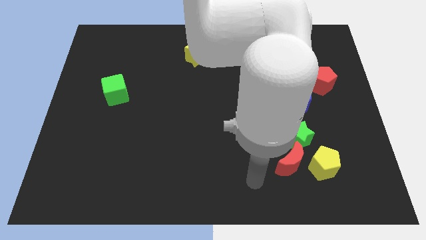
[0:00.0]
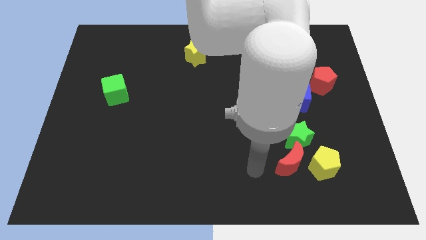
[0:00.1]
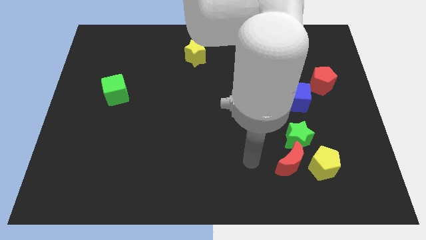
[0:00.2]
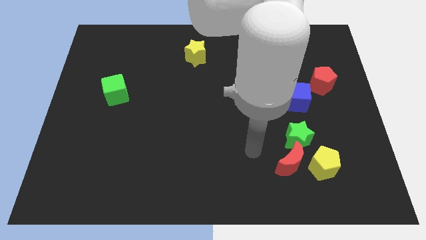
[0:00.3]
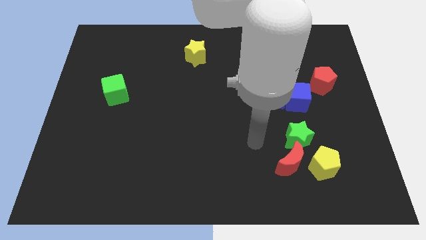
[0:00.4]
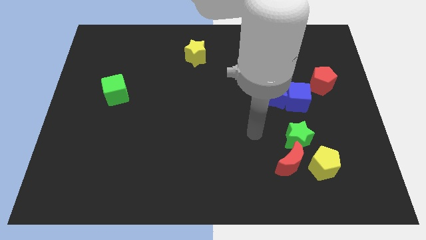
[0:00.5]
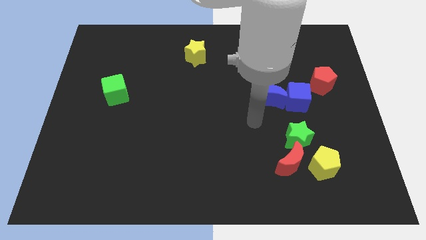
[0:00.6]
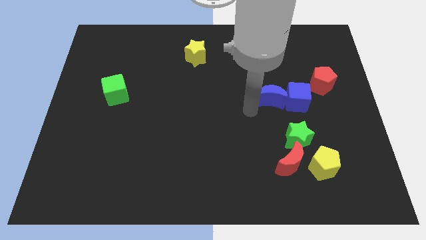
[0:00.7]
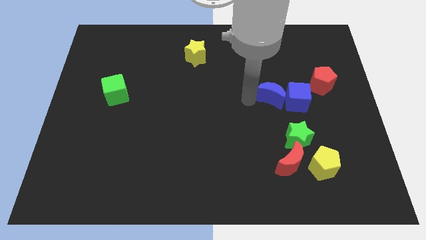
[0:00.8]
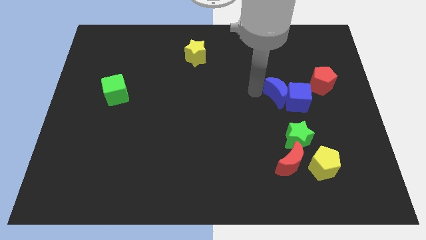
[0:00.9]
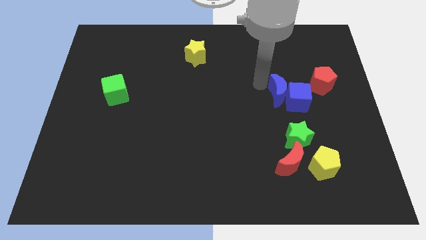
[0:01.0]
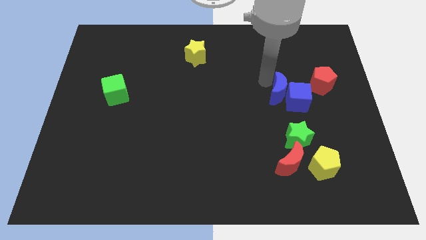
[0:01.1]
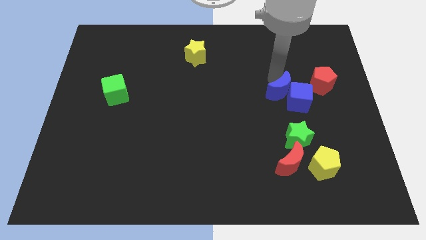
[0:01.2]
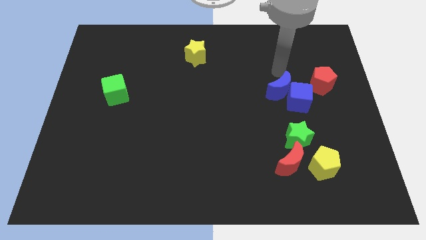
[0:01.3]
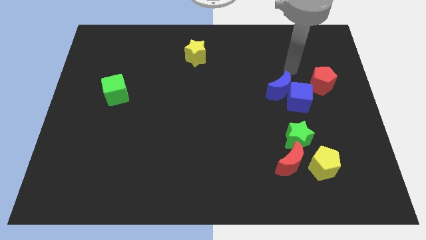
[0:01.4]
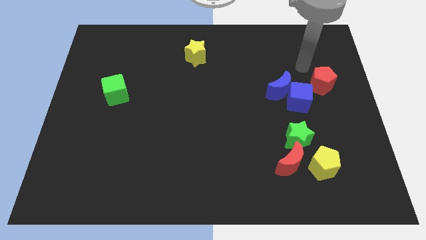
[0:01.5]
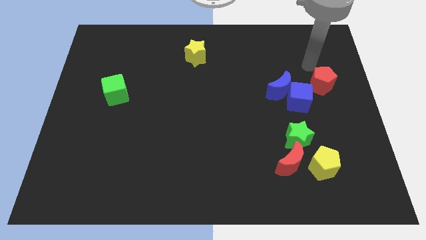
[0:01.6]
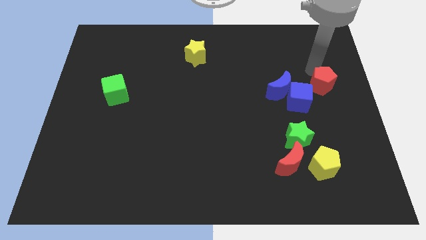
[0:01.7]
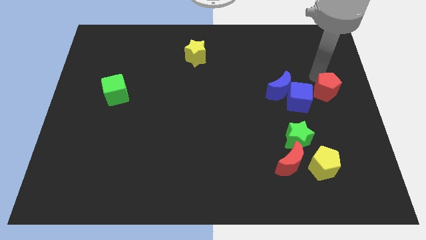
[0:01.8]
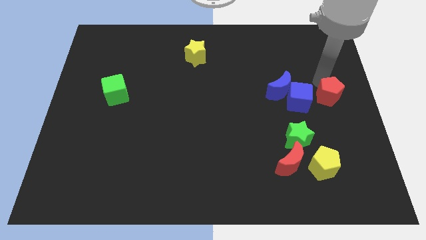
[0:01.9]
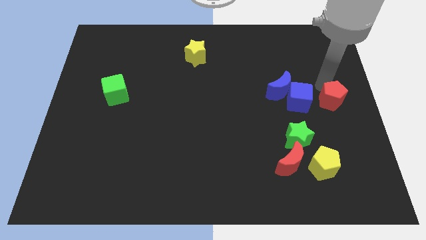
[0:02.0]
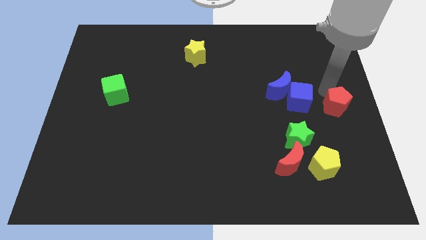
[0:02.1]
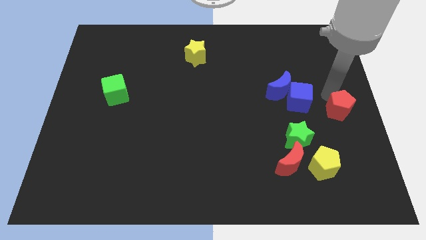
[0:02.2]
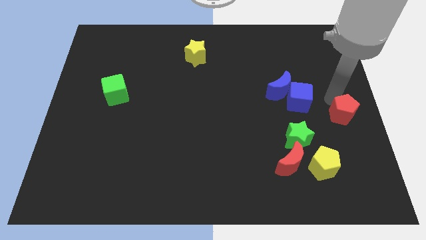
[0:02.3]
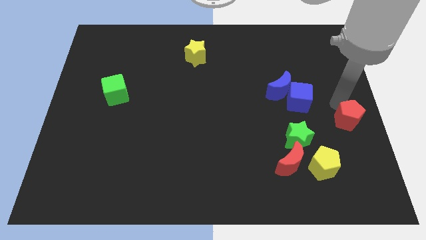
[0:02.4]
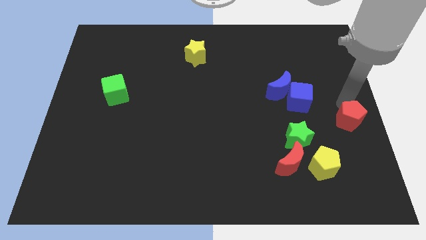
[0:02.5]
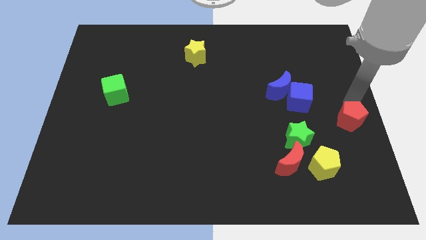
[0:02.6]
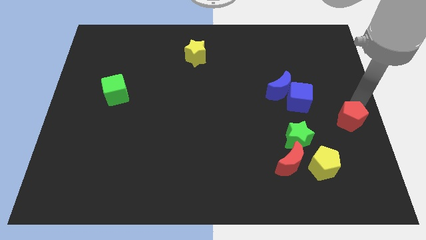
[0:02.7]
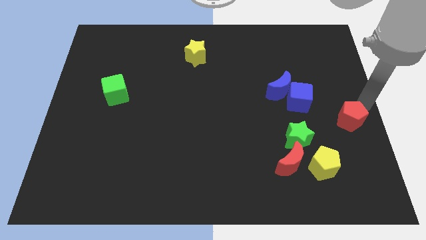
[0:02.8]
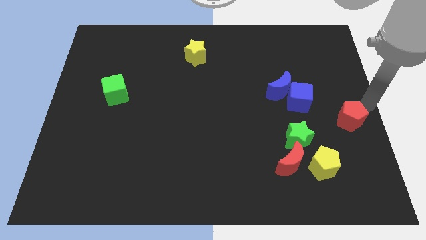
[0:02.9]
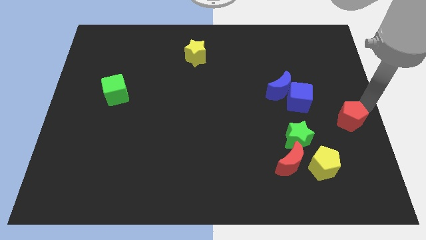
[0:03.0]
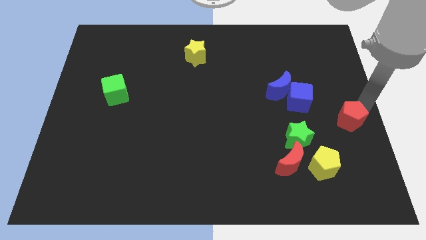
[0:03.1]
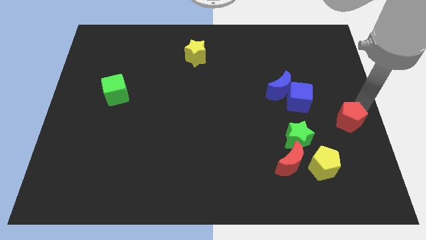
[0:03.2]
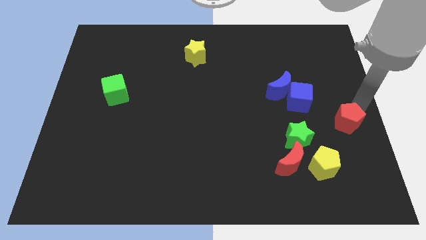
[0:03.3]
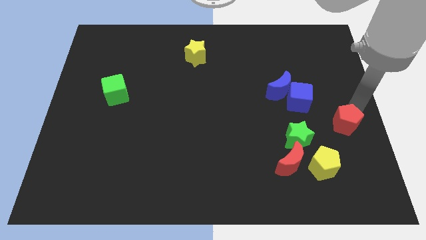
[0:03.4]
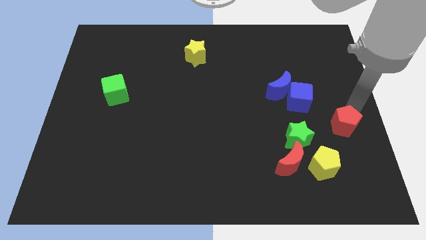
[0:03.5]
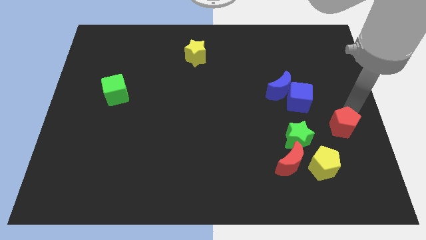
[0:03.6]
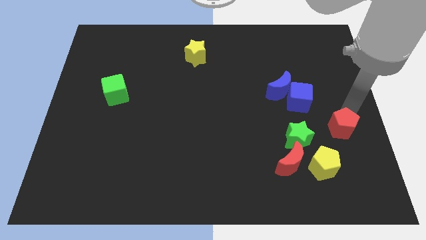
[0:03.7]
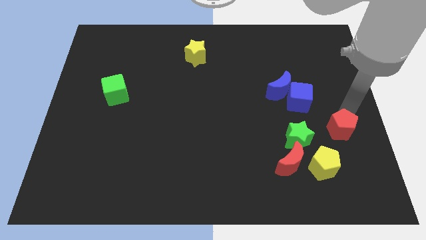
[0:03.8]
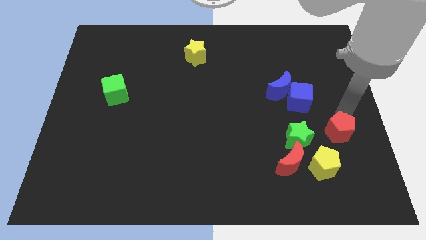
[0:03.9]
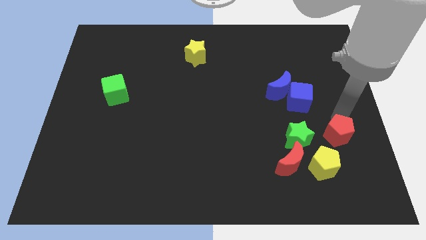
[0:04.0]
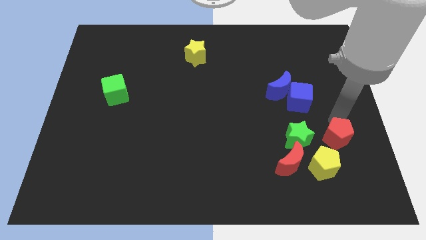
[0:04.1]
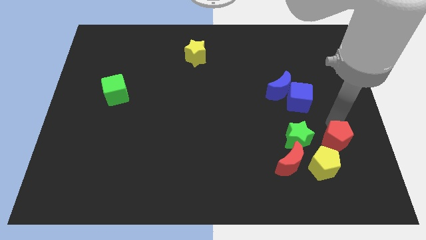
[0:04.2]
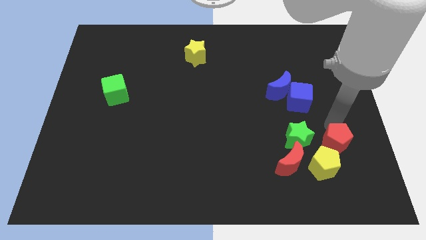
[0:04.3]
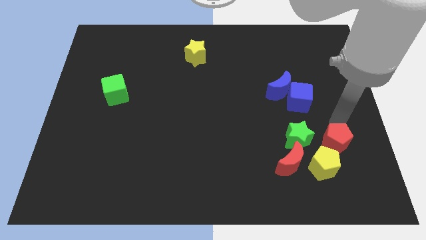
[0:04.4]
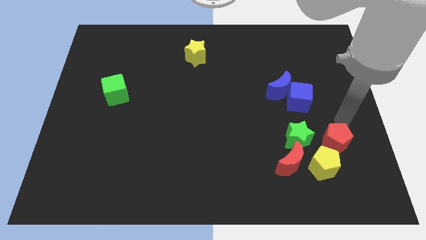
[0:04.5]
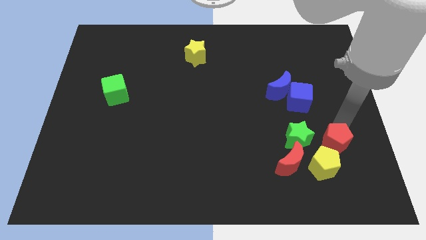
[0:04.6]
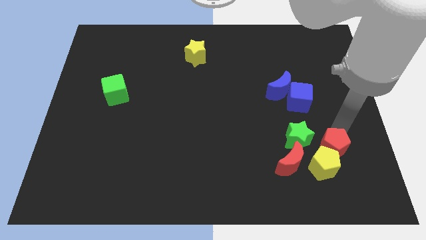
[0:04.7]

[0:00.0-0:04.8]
put the red pentagon towards the yellow pentagon

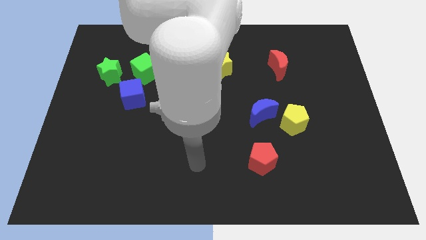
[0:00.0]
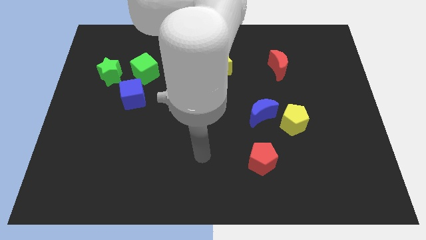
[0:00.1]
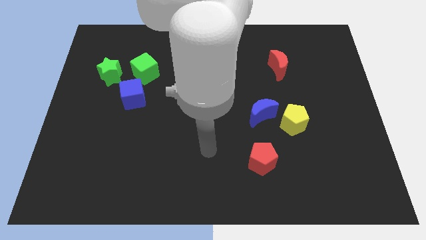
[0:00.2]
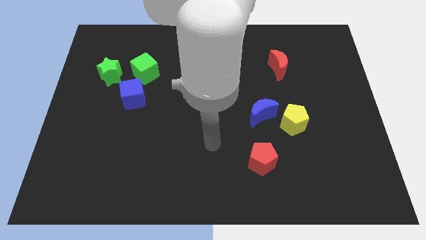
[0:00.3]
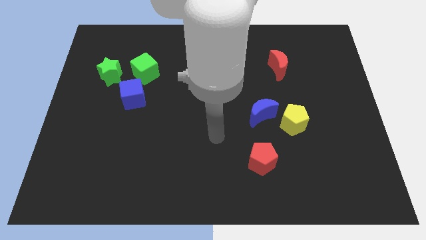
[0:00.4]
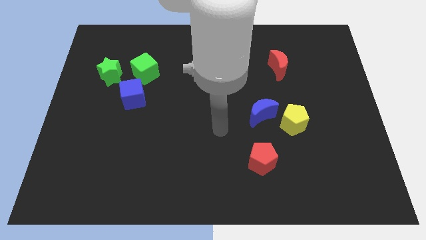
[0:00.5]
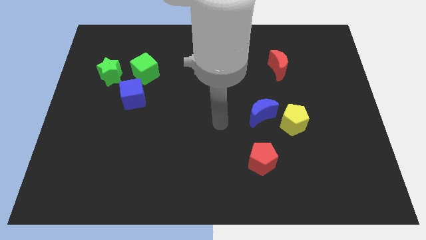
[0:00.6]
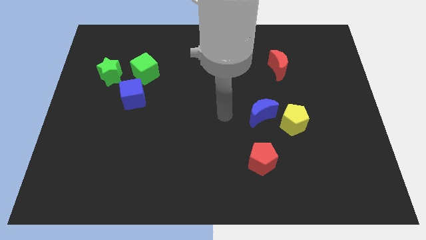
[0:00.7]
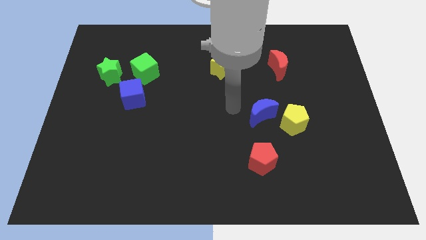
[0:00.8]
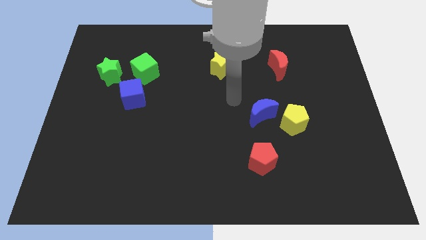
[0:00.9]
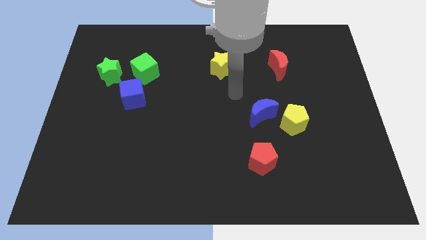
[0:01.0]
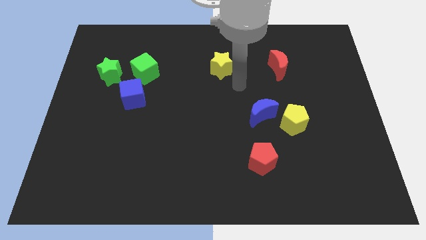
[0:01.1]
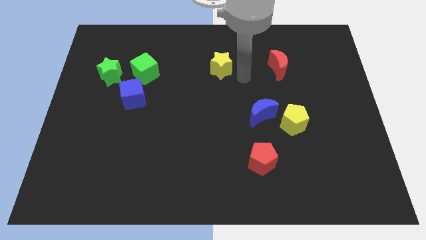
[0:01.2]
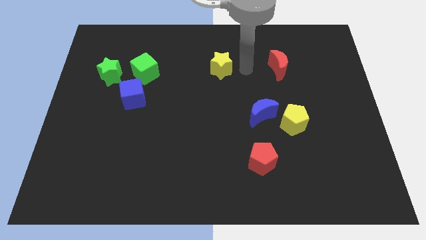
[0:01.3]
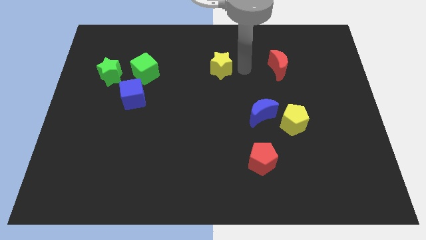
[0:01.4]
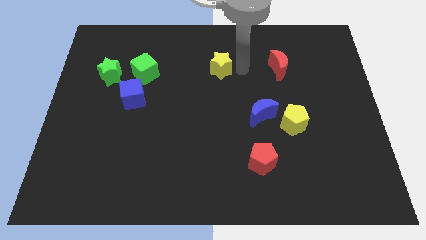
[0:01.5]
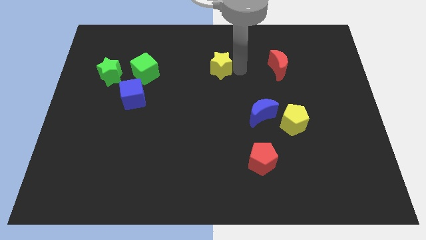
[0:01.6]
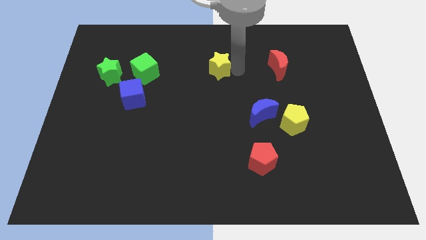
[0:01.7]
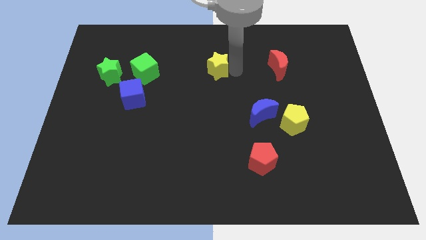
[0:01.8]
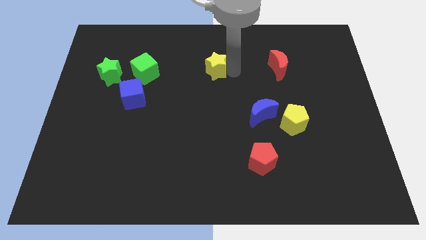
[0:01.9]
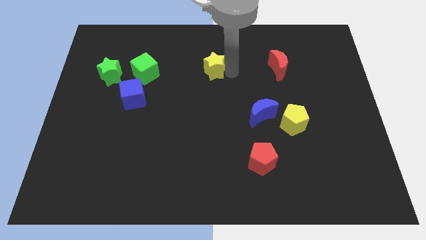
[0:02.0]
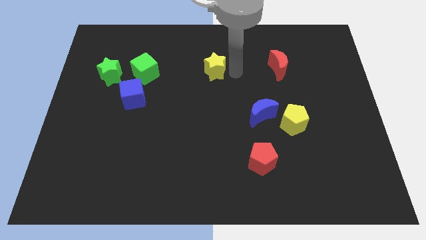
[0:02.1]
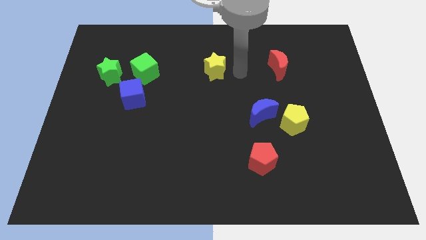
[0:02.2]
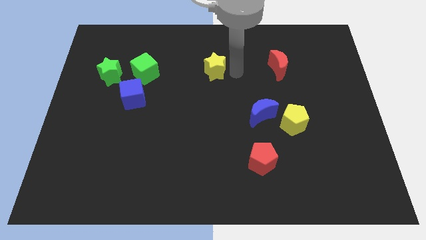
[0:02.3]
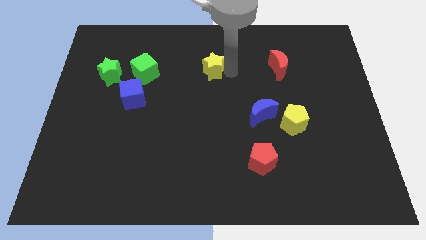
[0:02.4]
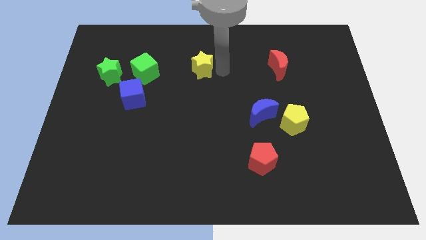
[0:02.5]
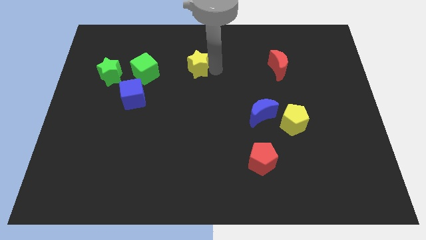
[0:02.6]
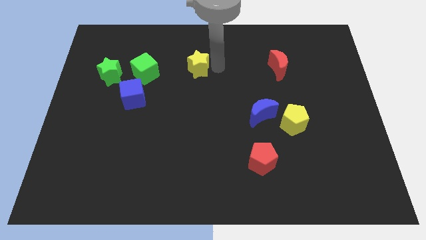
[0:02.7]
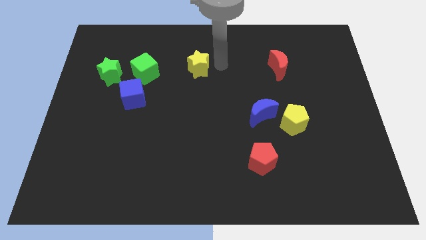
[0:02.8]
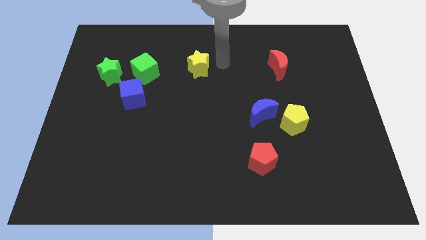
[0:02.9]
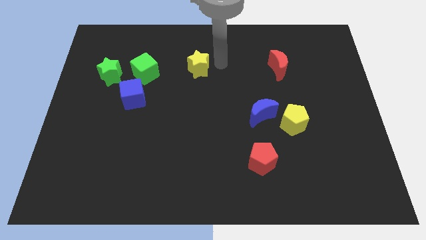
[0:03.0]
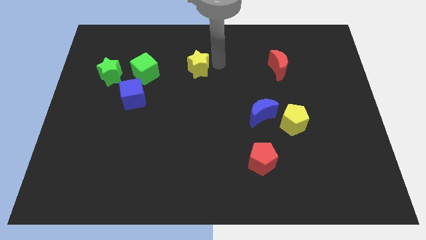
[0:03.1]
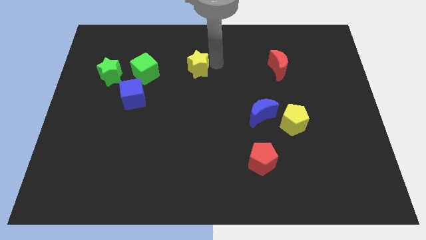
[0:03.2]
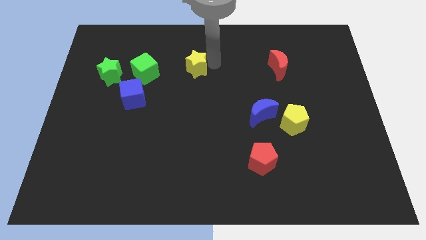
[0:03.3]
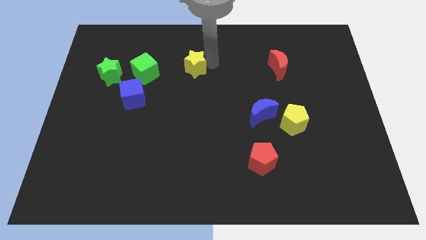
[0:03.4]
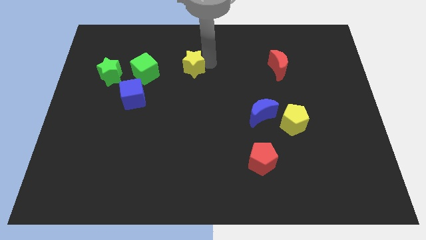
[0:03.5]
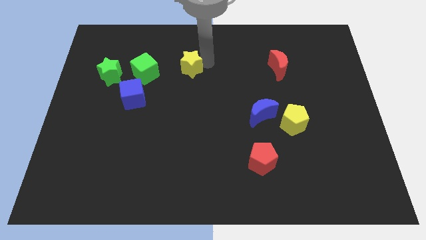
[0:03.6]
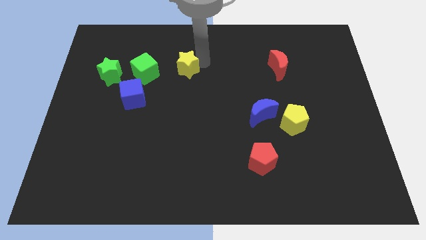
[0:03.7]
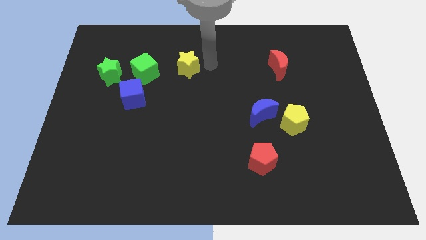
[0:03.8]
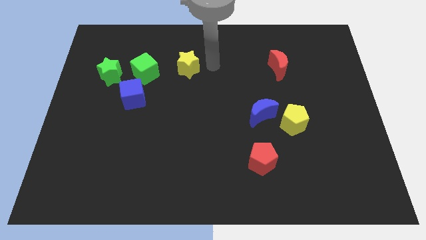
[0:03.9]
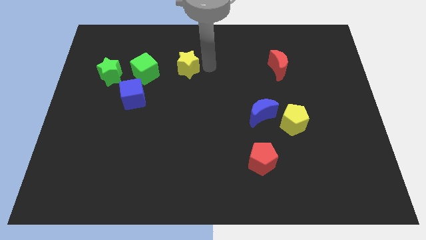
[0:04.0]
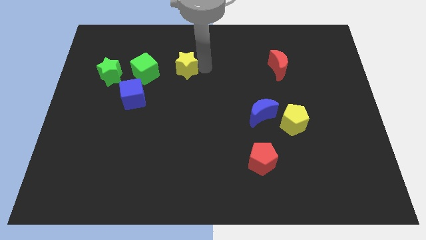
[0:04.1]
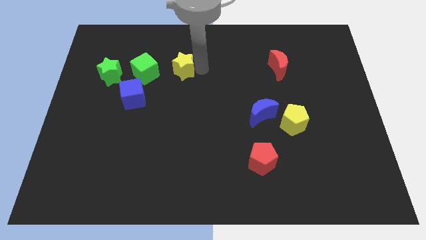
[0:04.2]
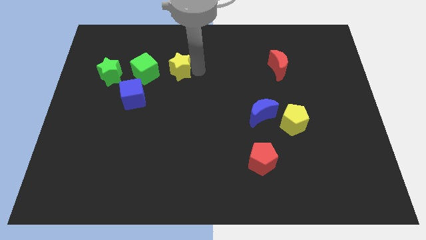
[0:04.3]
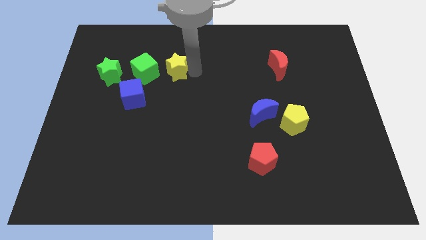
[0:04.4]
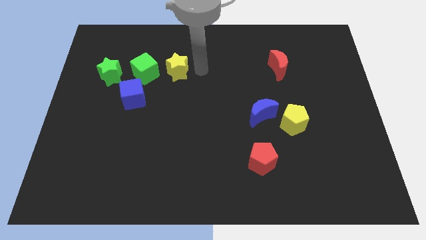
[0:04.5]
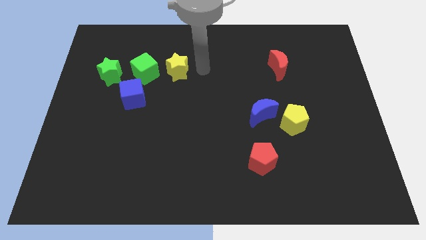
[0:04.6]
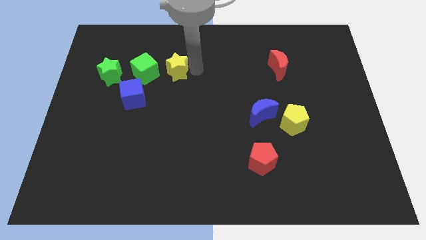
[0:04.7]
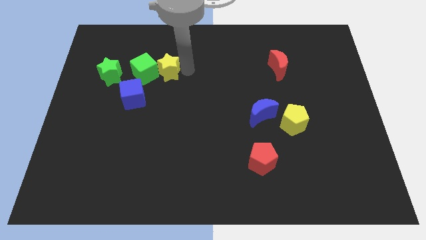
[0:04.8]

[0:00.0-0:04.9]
slide the yellow star next to the green cube
